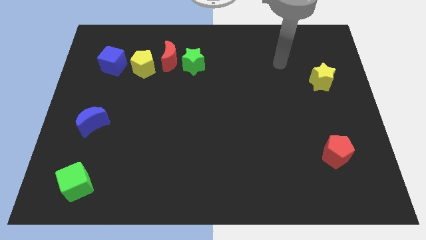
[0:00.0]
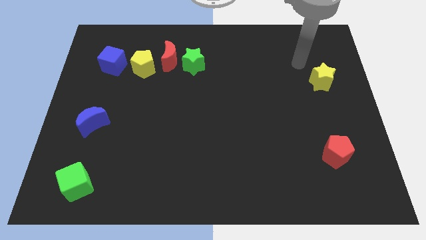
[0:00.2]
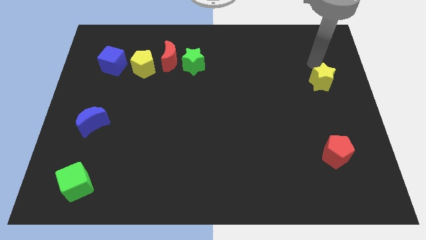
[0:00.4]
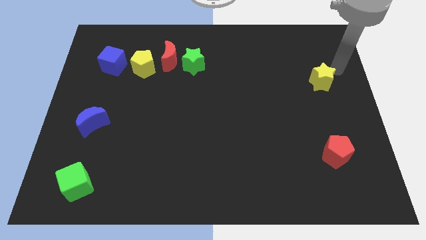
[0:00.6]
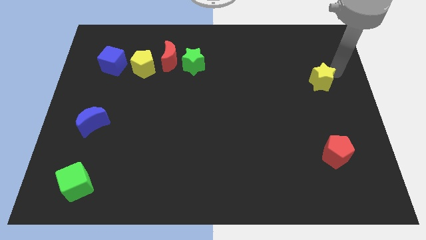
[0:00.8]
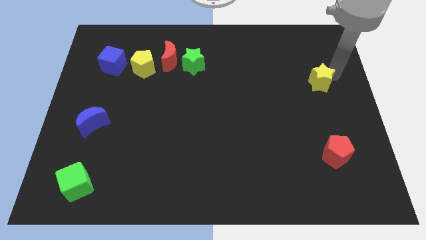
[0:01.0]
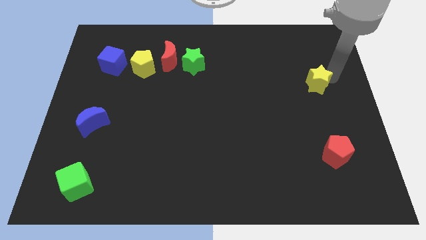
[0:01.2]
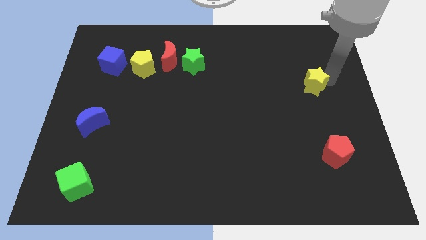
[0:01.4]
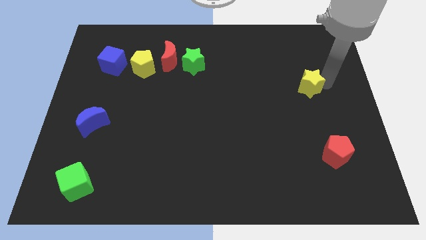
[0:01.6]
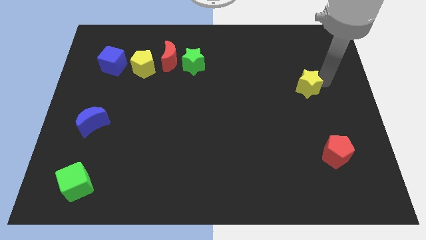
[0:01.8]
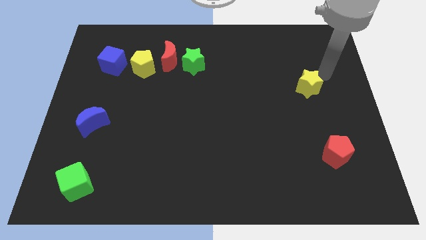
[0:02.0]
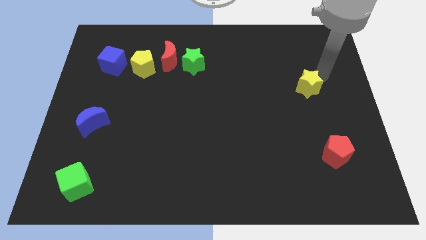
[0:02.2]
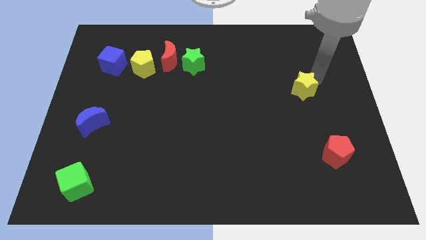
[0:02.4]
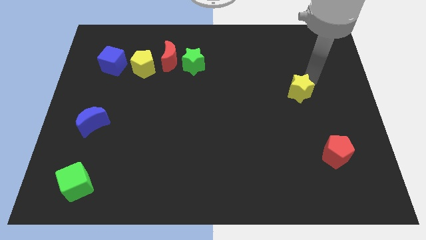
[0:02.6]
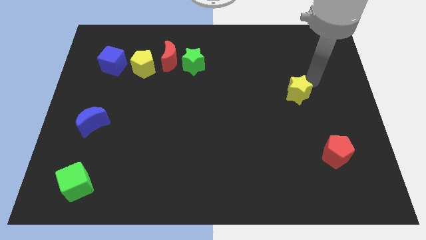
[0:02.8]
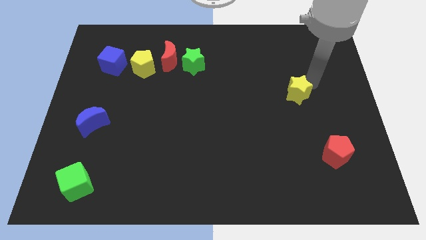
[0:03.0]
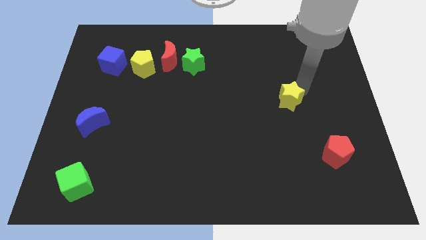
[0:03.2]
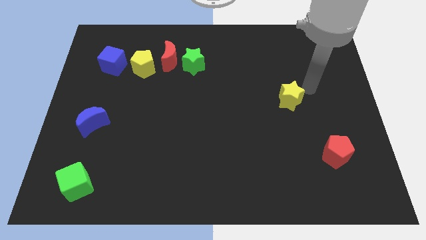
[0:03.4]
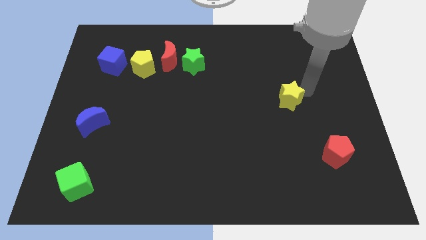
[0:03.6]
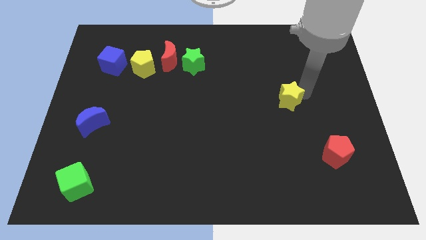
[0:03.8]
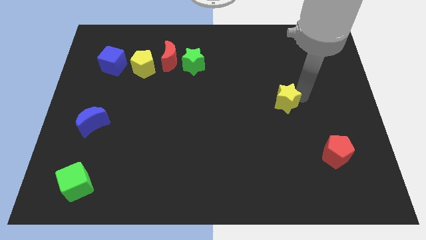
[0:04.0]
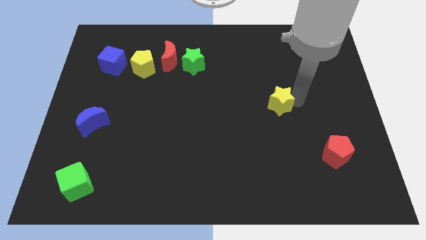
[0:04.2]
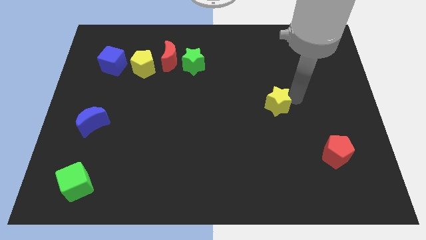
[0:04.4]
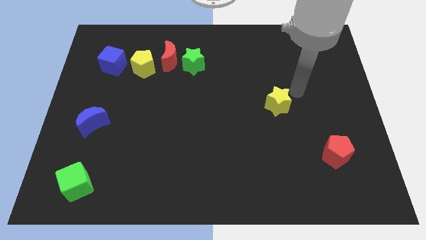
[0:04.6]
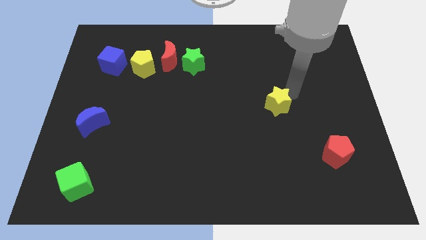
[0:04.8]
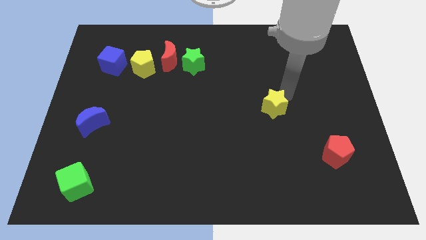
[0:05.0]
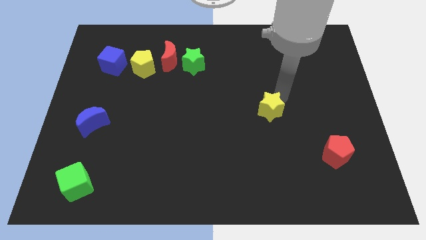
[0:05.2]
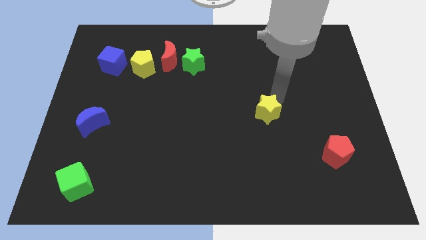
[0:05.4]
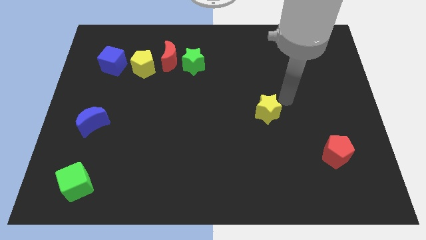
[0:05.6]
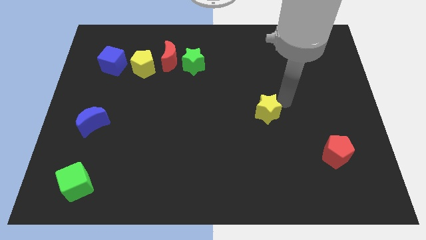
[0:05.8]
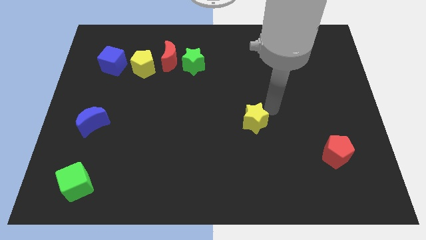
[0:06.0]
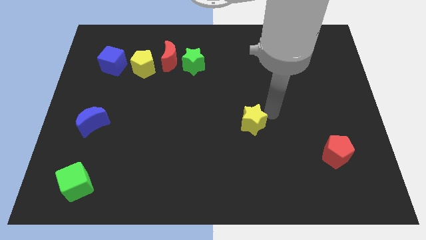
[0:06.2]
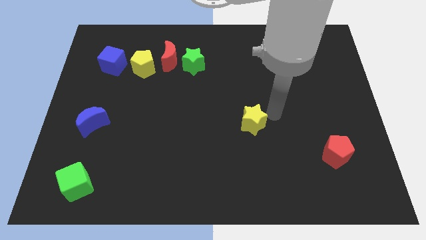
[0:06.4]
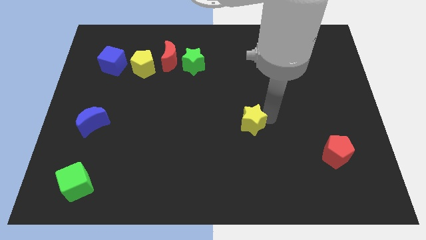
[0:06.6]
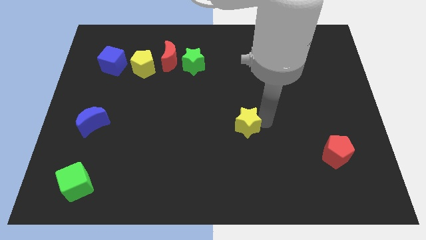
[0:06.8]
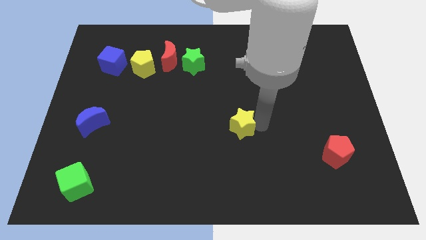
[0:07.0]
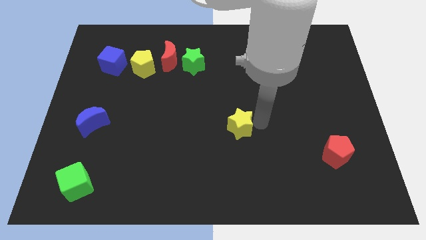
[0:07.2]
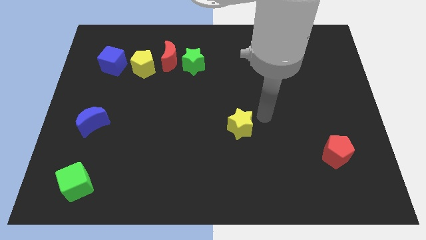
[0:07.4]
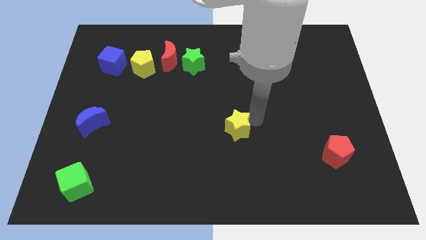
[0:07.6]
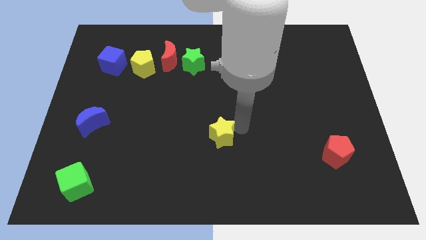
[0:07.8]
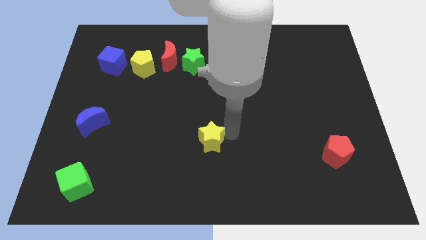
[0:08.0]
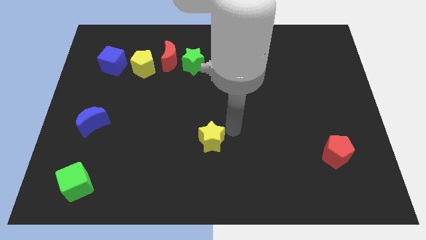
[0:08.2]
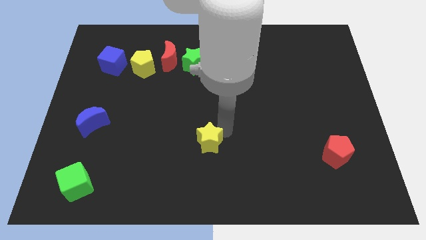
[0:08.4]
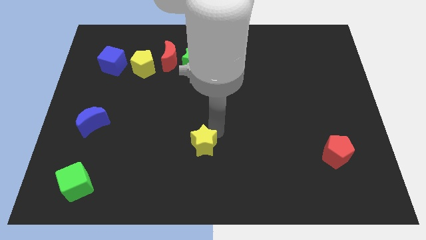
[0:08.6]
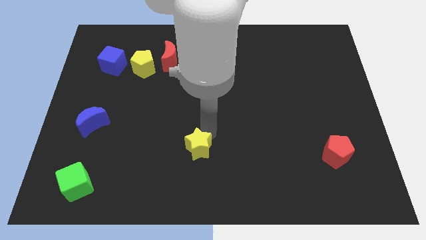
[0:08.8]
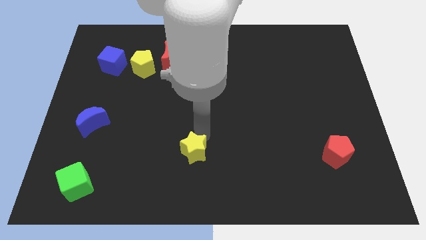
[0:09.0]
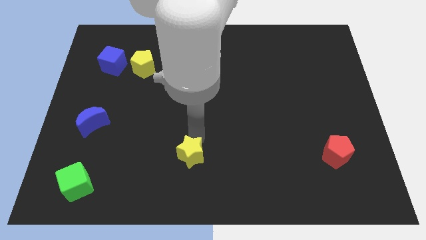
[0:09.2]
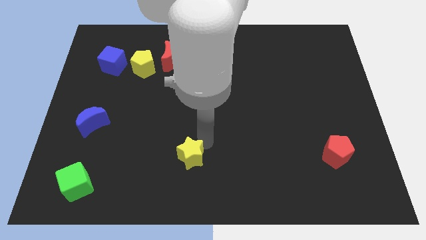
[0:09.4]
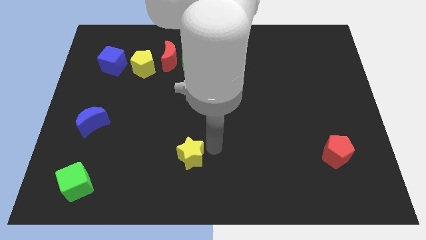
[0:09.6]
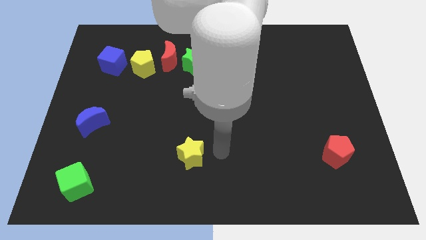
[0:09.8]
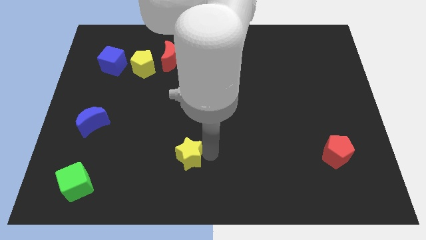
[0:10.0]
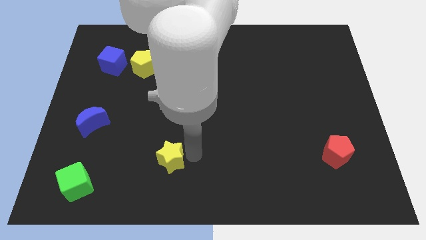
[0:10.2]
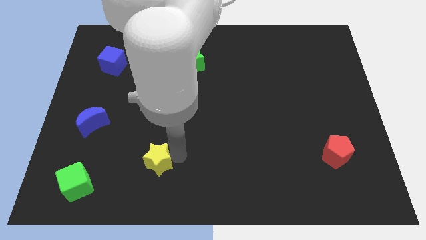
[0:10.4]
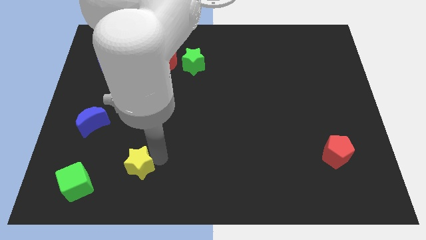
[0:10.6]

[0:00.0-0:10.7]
push the yellow star to the right side of the green cube

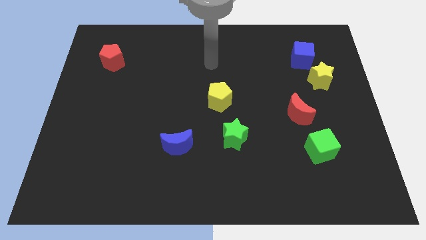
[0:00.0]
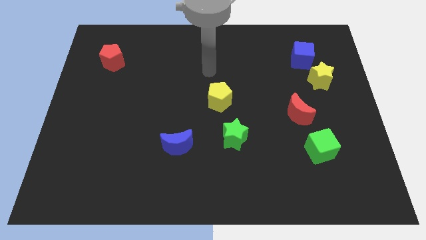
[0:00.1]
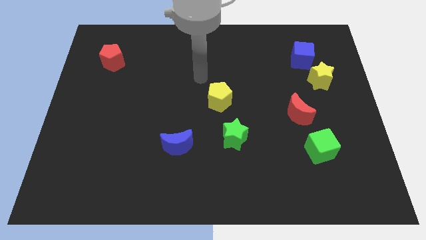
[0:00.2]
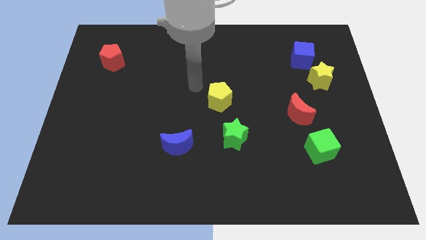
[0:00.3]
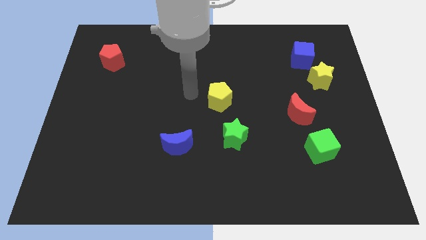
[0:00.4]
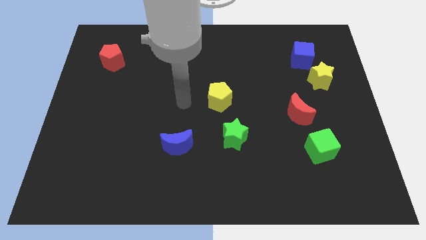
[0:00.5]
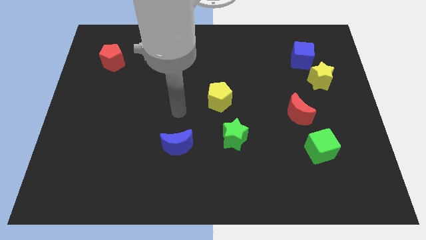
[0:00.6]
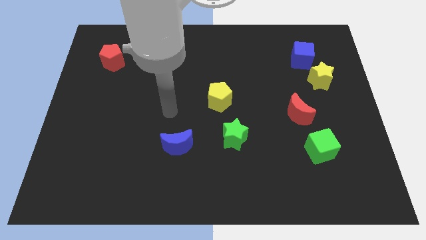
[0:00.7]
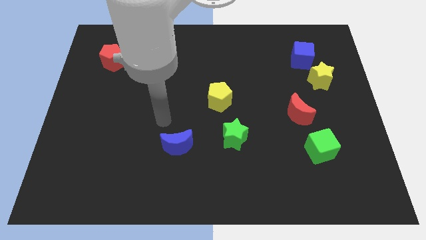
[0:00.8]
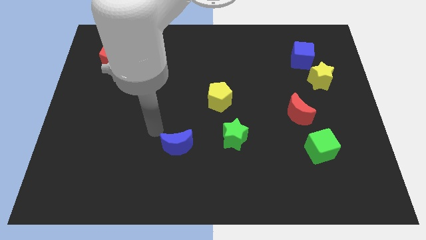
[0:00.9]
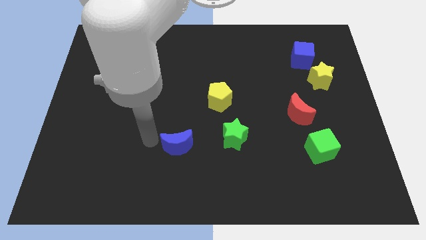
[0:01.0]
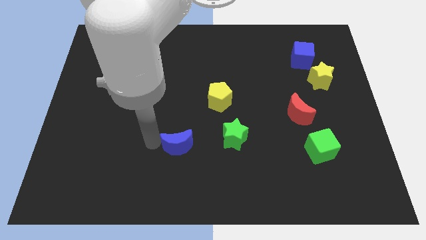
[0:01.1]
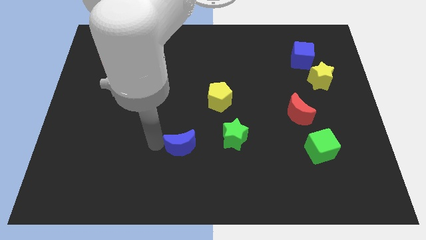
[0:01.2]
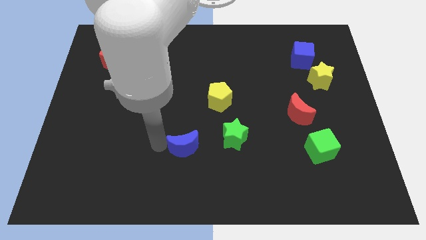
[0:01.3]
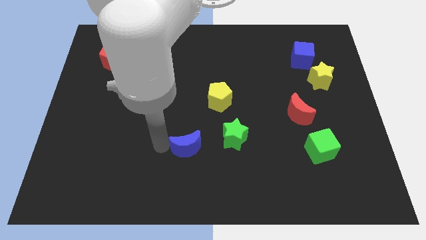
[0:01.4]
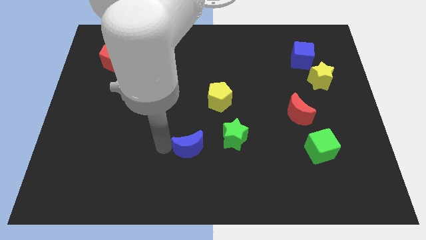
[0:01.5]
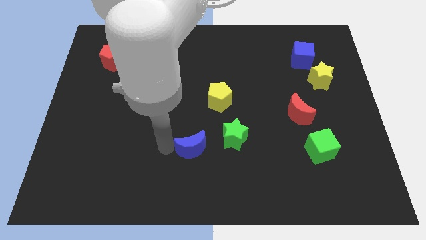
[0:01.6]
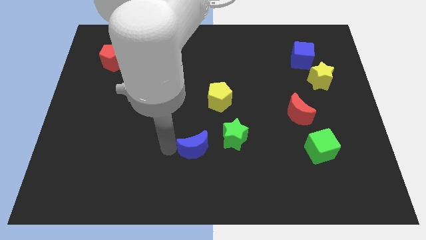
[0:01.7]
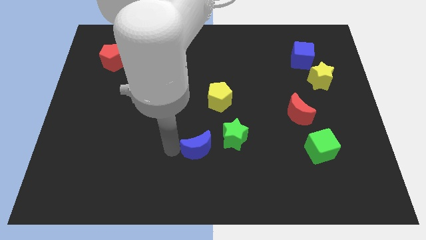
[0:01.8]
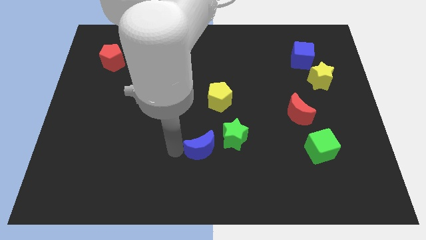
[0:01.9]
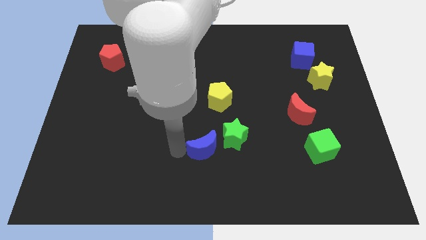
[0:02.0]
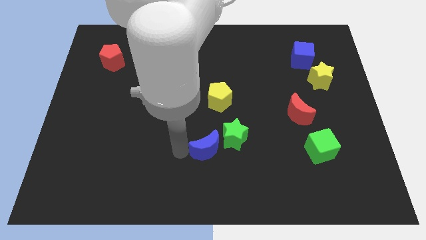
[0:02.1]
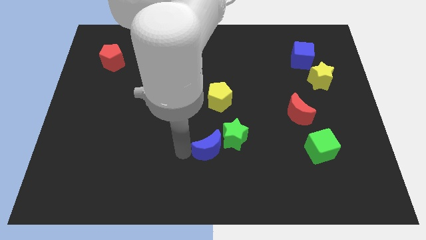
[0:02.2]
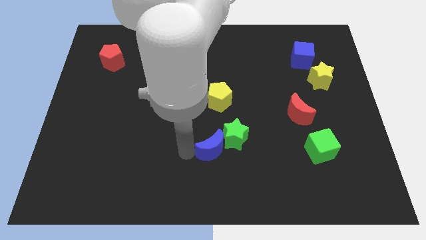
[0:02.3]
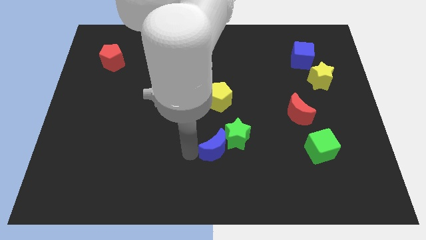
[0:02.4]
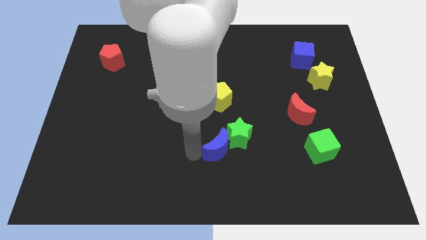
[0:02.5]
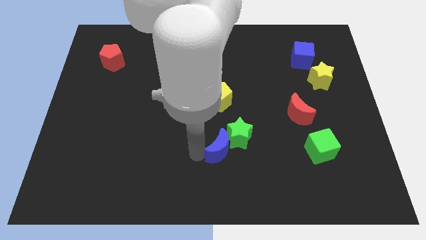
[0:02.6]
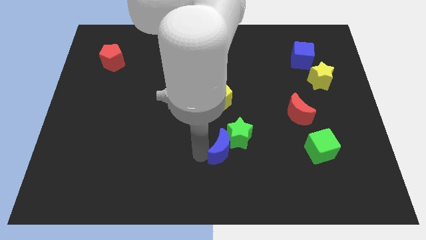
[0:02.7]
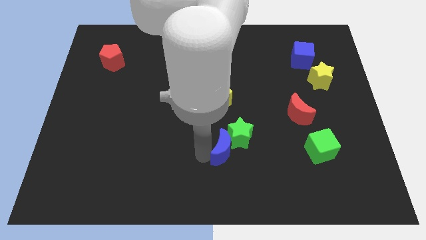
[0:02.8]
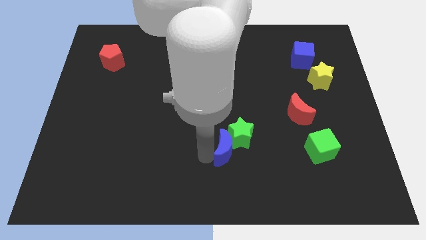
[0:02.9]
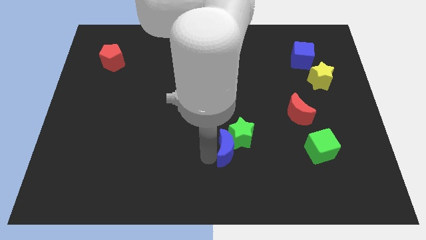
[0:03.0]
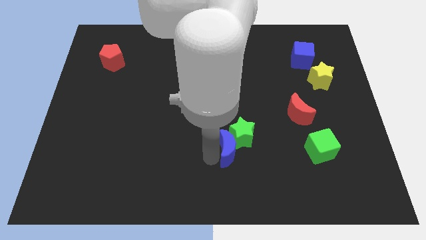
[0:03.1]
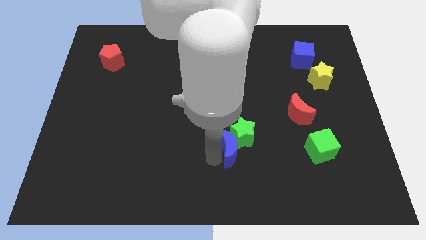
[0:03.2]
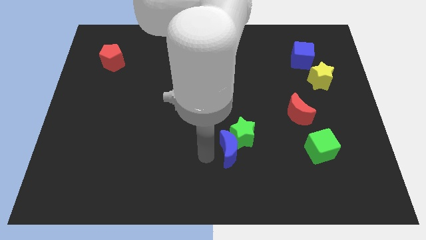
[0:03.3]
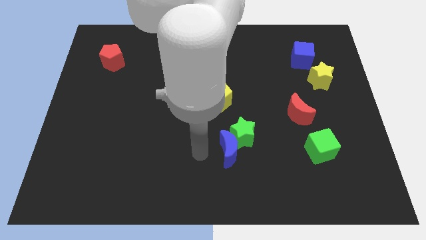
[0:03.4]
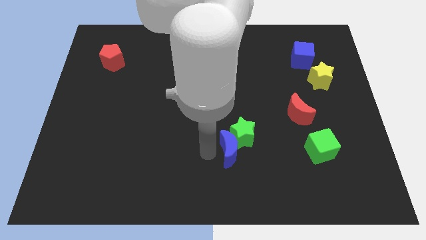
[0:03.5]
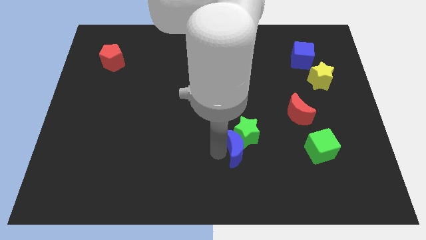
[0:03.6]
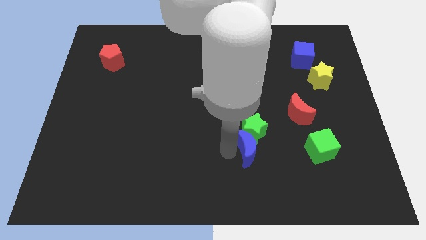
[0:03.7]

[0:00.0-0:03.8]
put the blue moon to the left of the green cube
